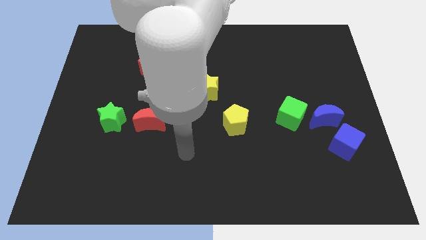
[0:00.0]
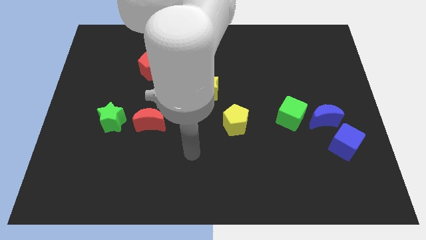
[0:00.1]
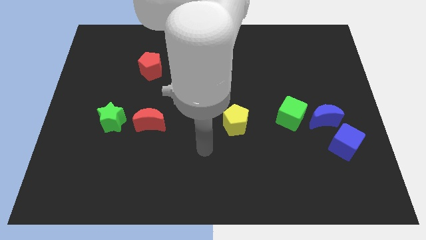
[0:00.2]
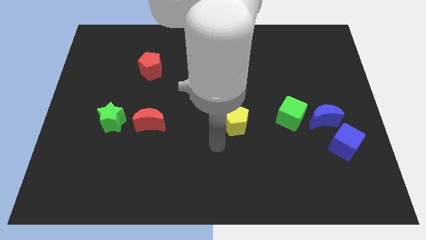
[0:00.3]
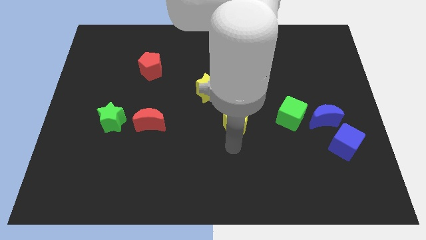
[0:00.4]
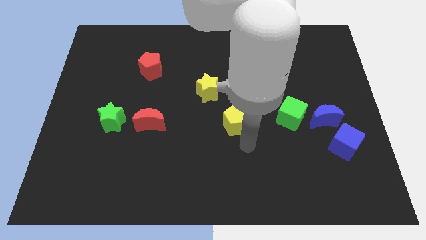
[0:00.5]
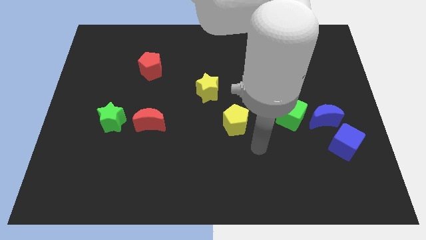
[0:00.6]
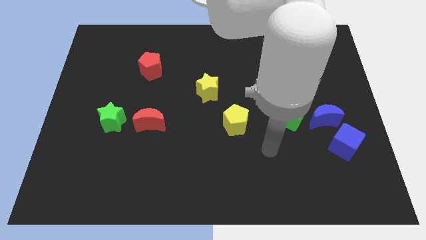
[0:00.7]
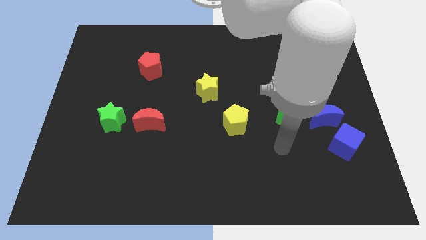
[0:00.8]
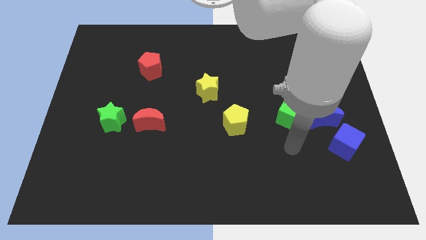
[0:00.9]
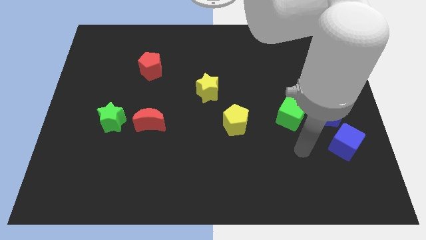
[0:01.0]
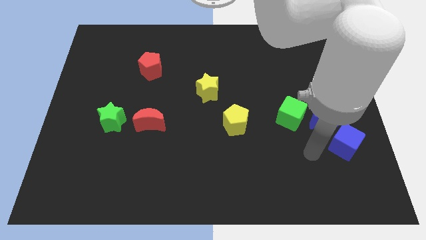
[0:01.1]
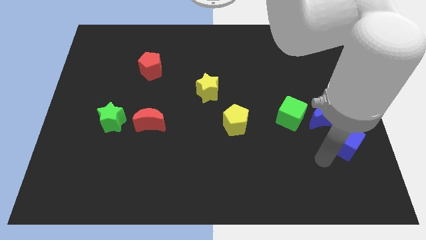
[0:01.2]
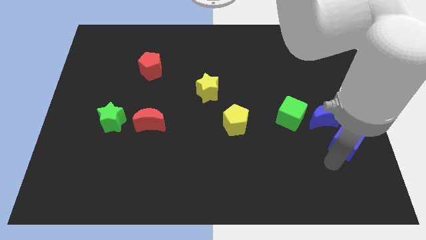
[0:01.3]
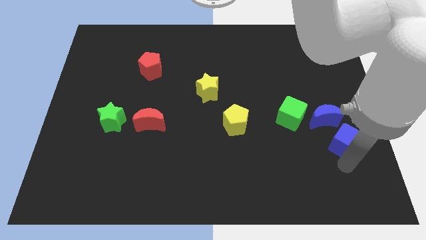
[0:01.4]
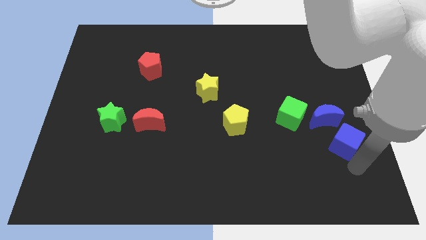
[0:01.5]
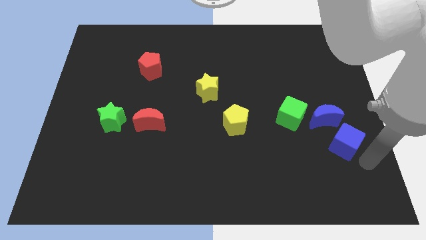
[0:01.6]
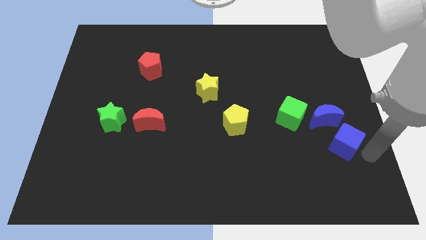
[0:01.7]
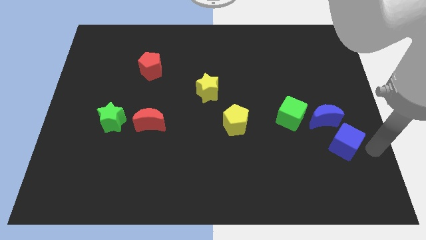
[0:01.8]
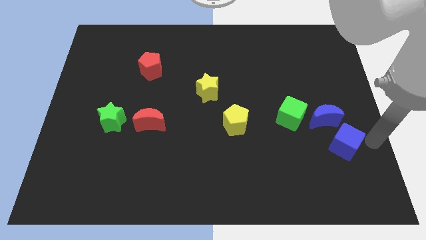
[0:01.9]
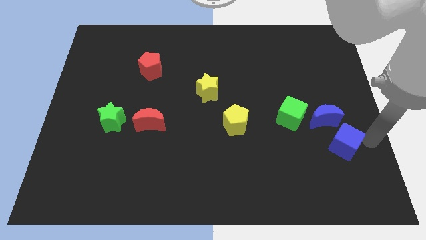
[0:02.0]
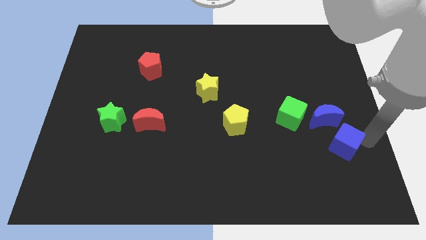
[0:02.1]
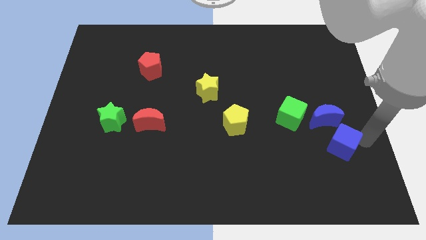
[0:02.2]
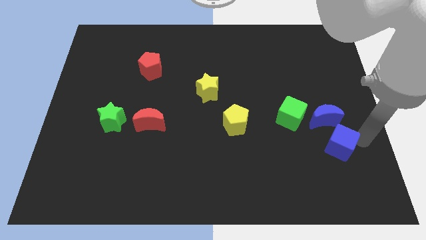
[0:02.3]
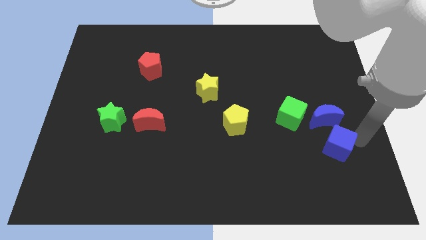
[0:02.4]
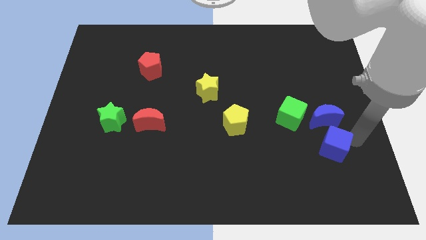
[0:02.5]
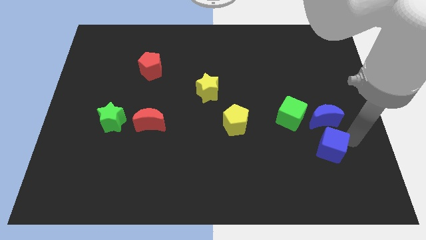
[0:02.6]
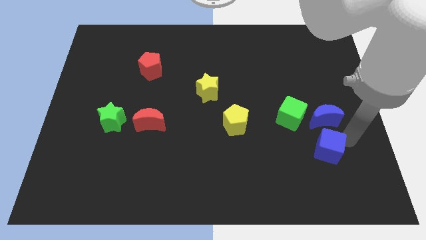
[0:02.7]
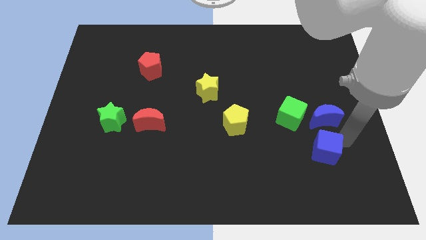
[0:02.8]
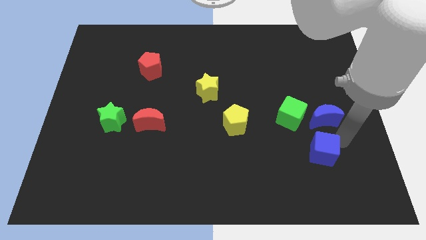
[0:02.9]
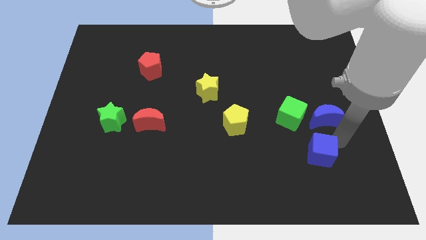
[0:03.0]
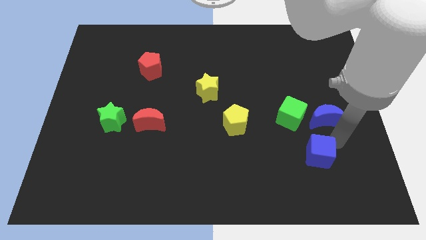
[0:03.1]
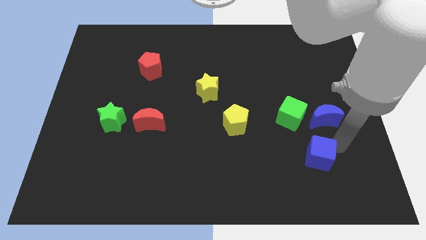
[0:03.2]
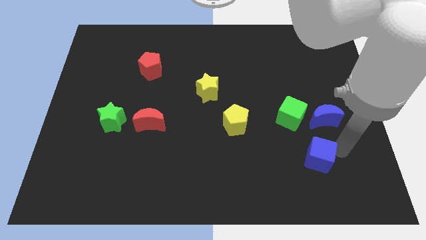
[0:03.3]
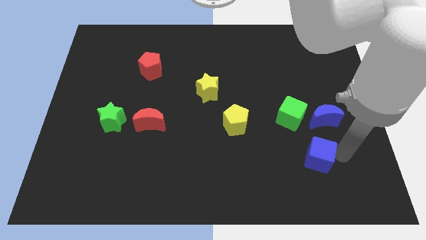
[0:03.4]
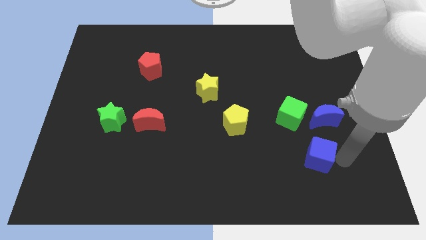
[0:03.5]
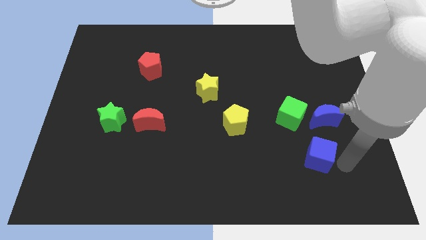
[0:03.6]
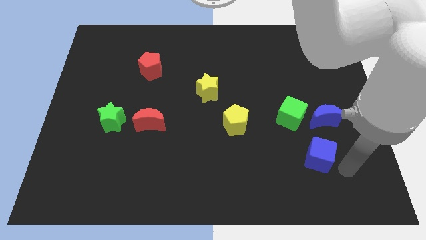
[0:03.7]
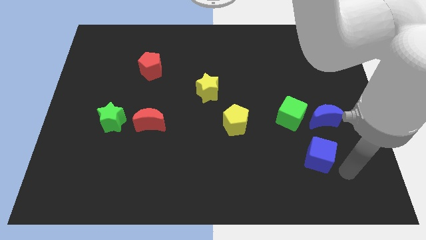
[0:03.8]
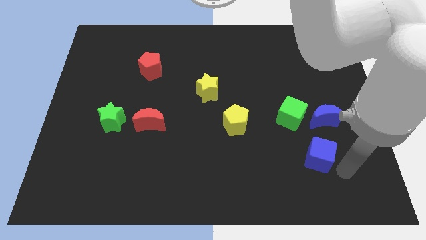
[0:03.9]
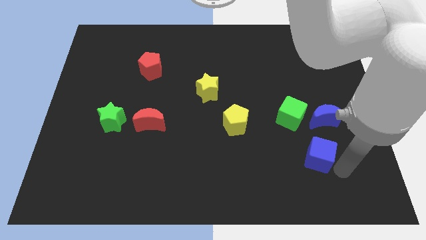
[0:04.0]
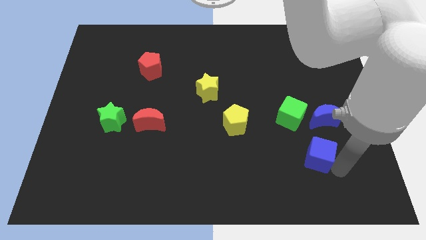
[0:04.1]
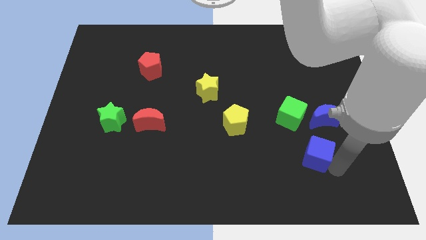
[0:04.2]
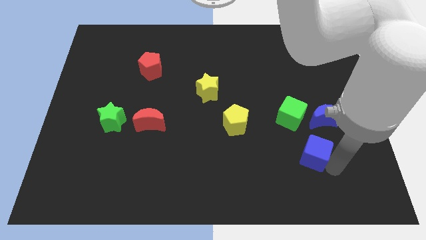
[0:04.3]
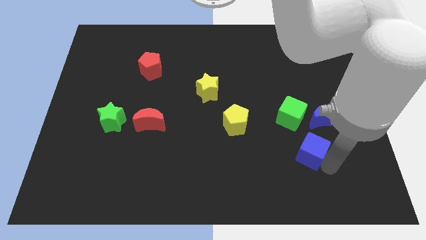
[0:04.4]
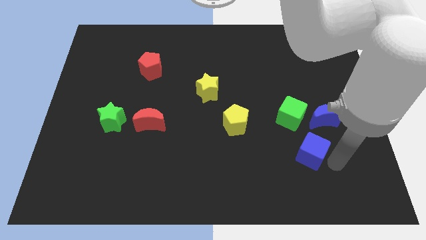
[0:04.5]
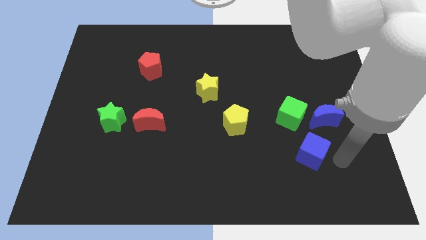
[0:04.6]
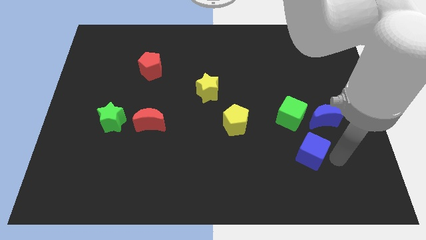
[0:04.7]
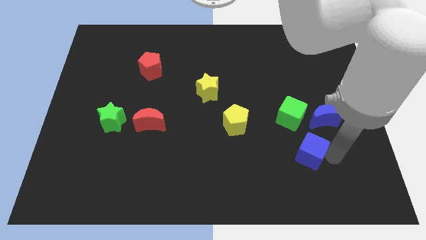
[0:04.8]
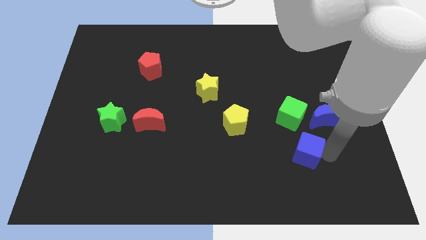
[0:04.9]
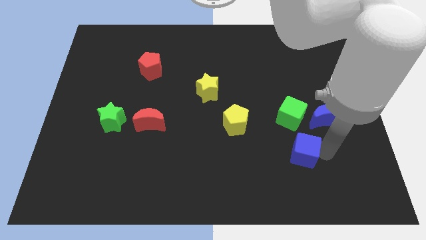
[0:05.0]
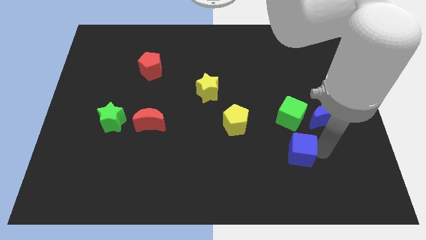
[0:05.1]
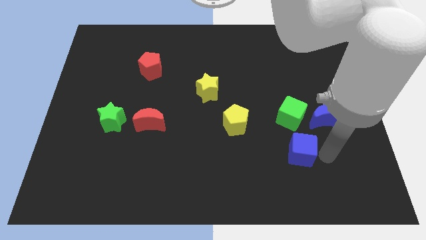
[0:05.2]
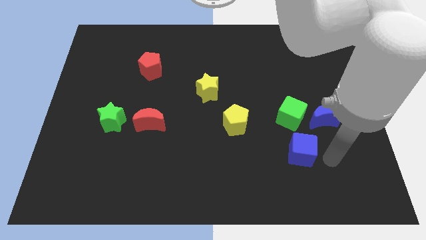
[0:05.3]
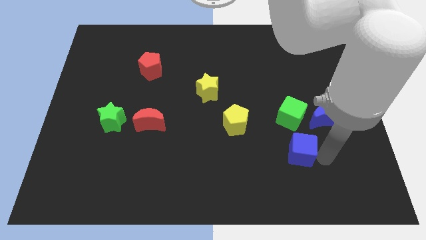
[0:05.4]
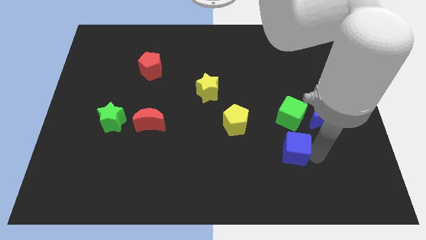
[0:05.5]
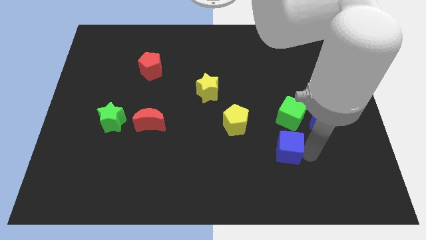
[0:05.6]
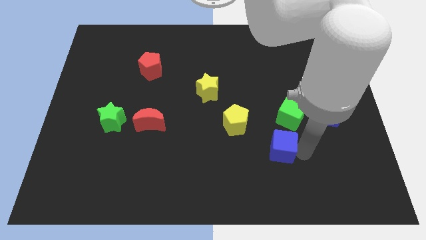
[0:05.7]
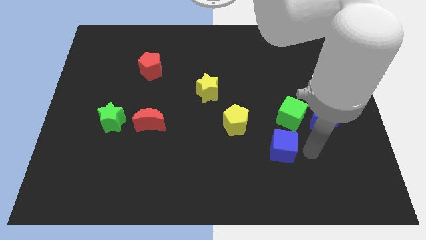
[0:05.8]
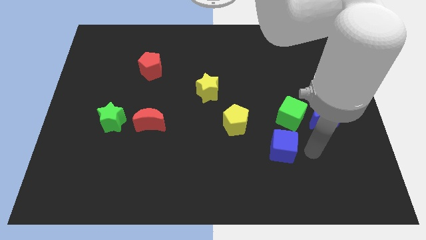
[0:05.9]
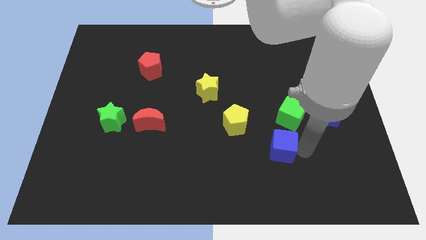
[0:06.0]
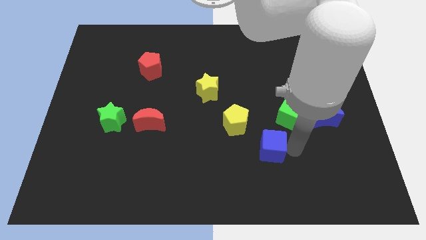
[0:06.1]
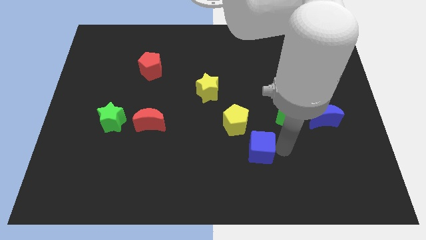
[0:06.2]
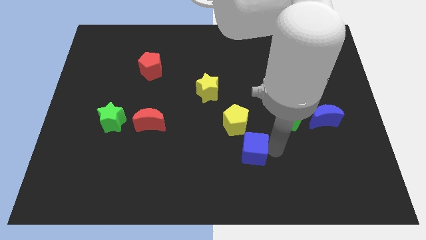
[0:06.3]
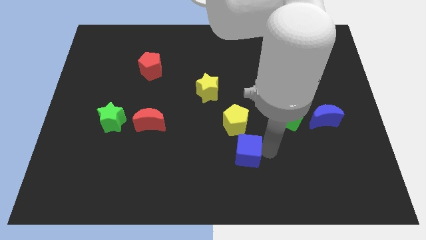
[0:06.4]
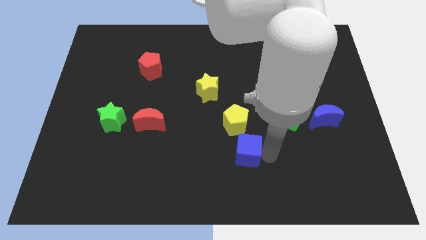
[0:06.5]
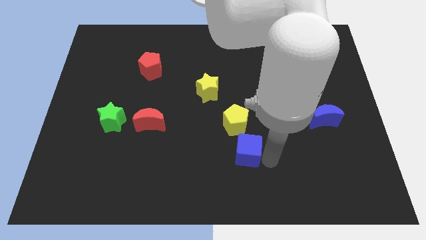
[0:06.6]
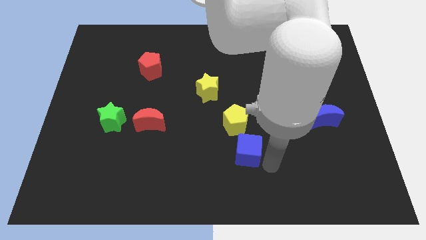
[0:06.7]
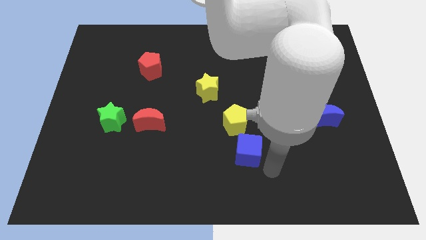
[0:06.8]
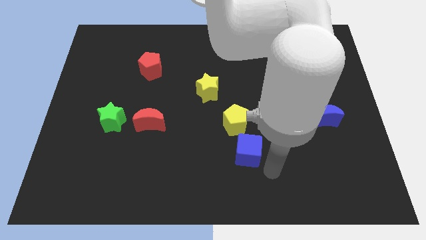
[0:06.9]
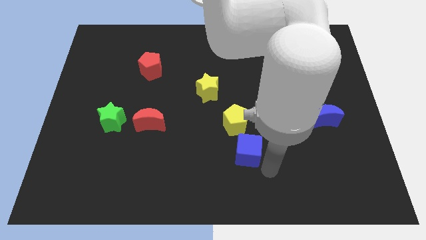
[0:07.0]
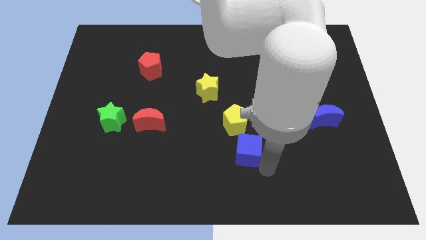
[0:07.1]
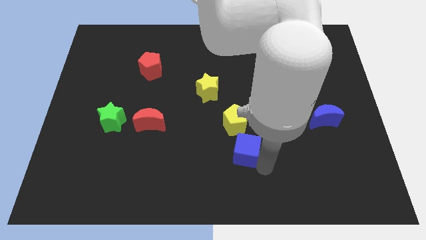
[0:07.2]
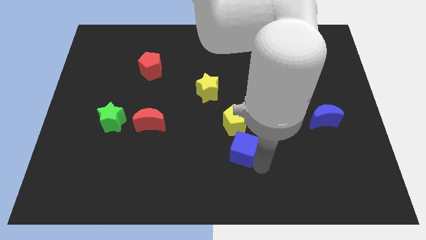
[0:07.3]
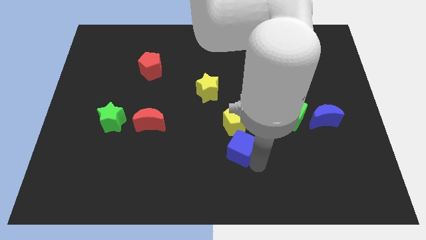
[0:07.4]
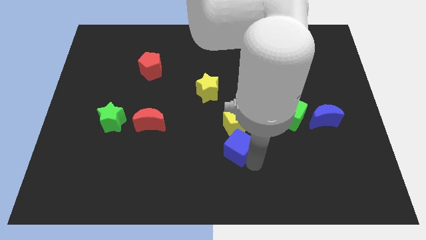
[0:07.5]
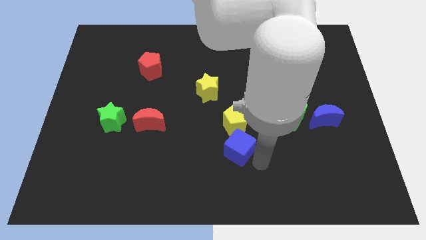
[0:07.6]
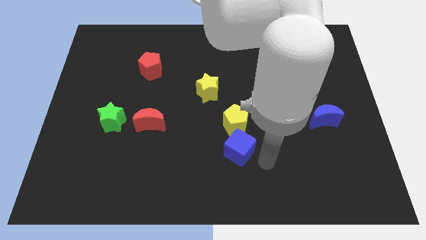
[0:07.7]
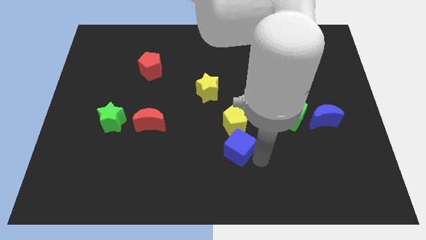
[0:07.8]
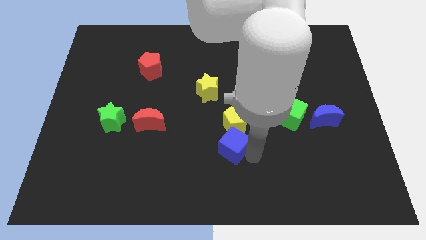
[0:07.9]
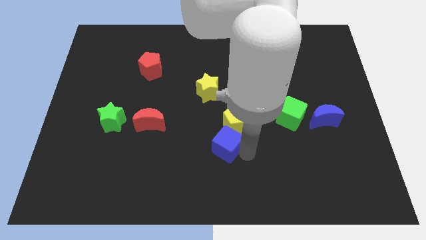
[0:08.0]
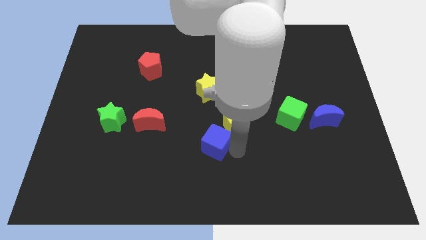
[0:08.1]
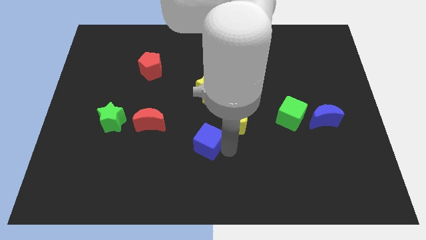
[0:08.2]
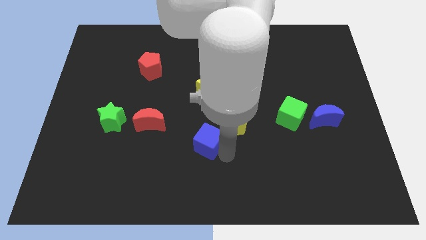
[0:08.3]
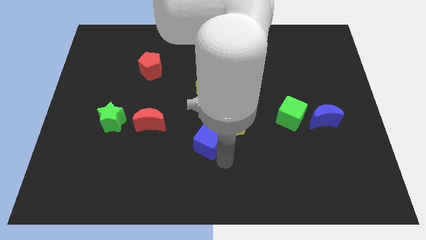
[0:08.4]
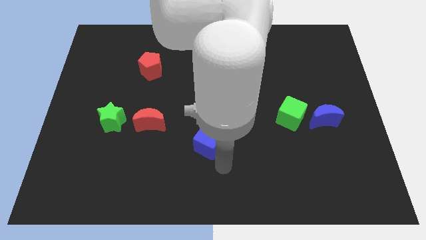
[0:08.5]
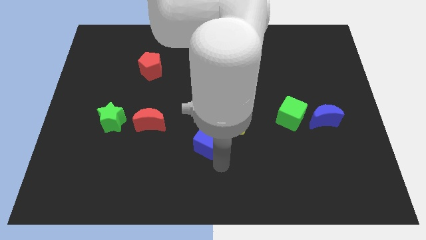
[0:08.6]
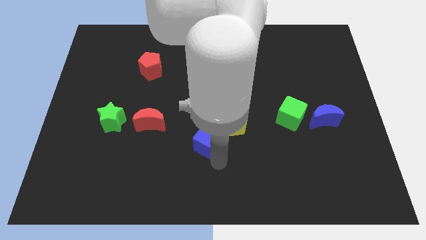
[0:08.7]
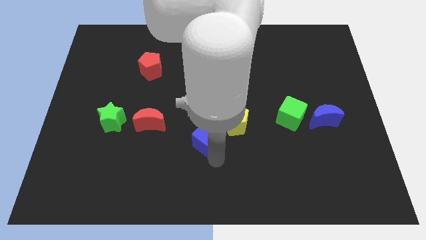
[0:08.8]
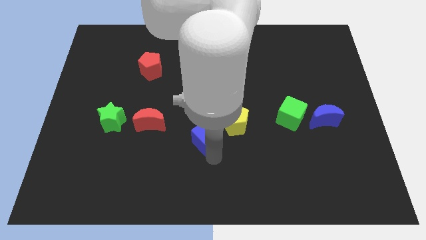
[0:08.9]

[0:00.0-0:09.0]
push the blue cube to the right of the red moon
